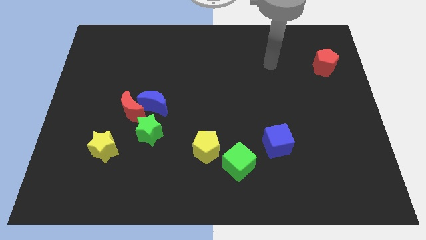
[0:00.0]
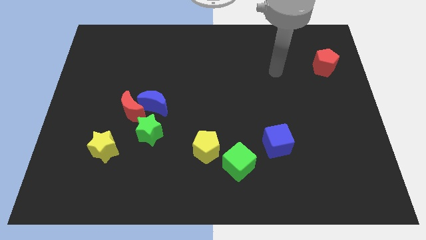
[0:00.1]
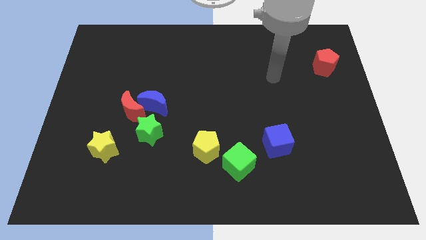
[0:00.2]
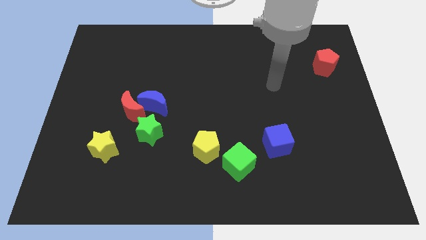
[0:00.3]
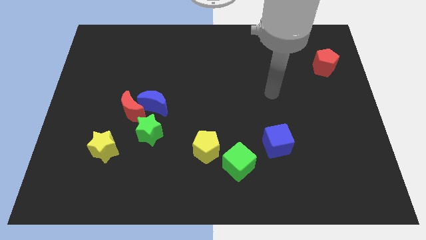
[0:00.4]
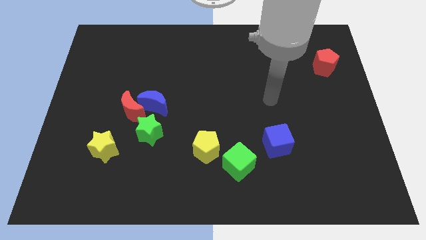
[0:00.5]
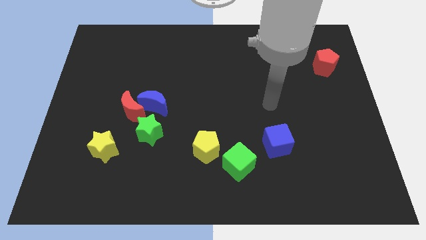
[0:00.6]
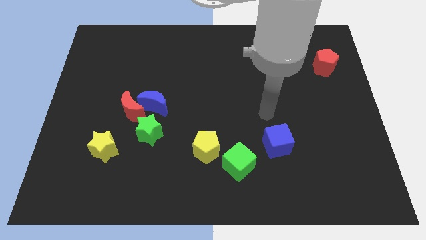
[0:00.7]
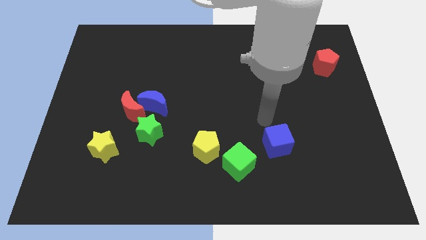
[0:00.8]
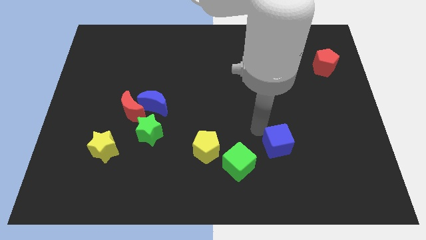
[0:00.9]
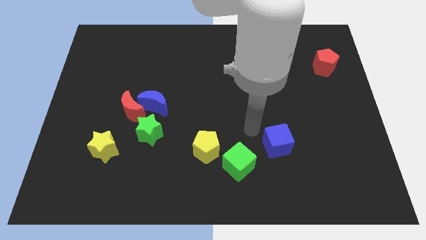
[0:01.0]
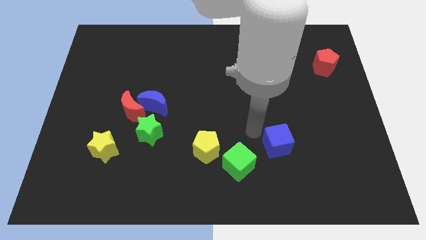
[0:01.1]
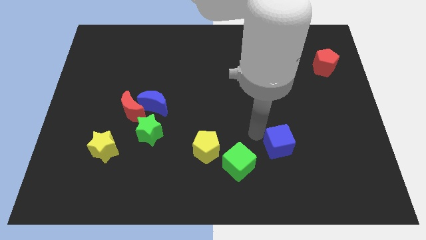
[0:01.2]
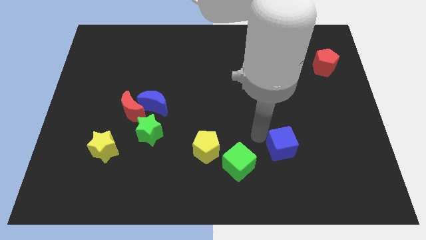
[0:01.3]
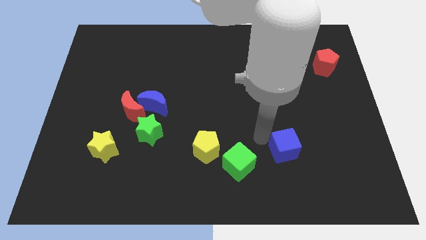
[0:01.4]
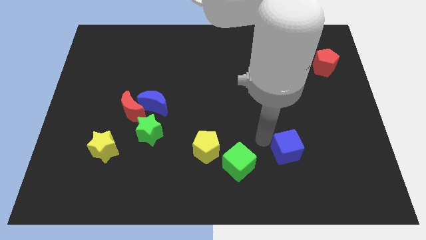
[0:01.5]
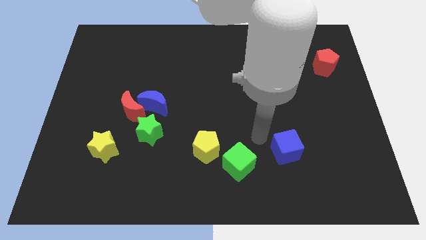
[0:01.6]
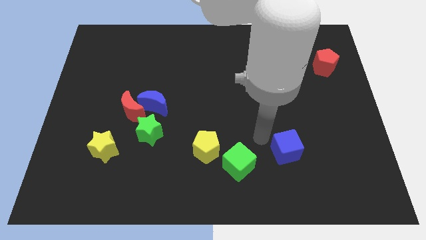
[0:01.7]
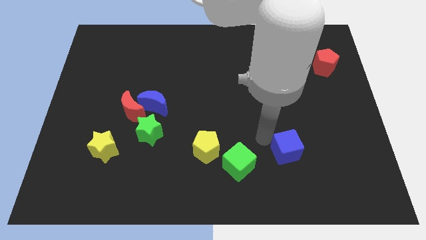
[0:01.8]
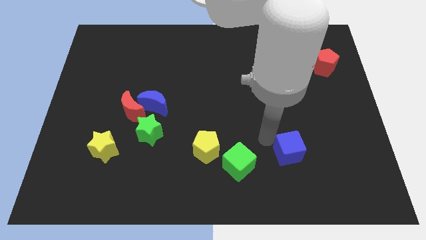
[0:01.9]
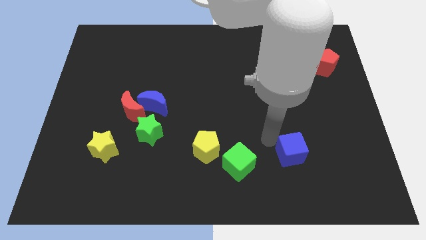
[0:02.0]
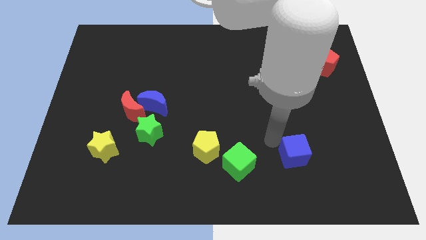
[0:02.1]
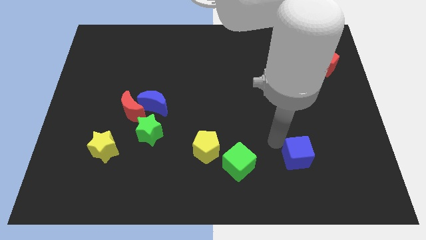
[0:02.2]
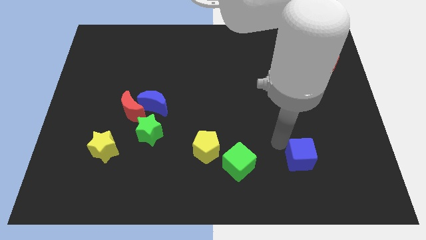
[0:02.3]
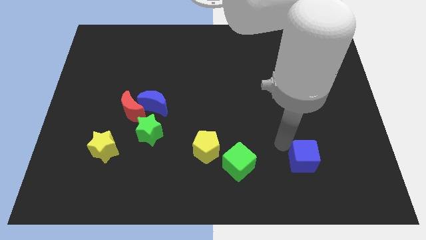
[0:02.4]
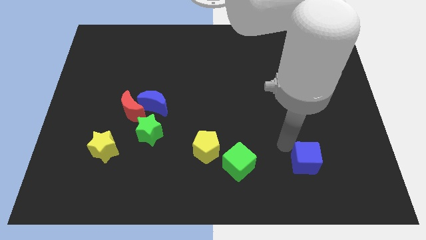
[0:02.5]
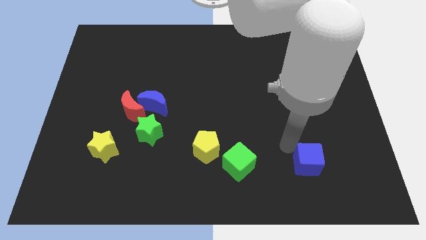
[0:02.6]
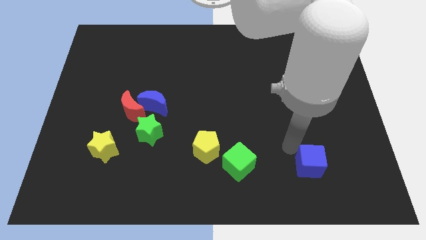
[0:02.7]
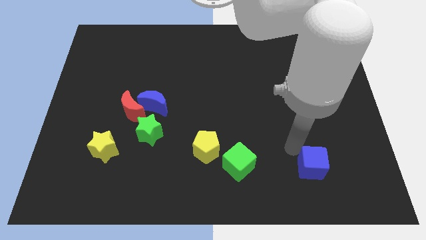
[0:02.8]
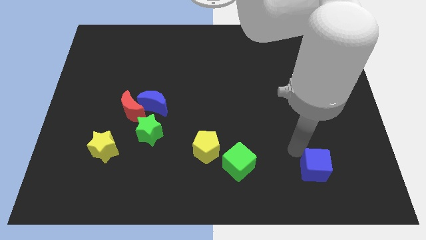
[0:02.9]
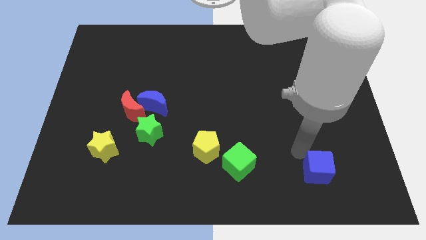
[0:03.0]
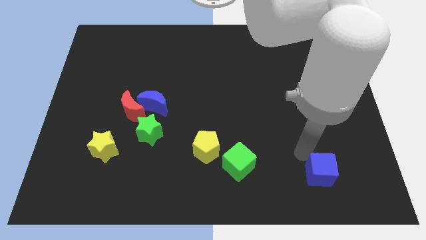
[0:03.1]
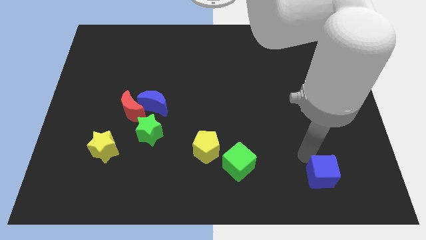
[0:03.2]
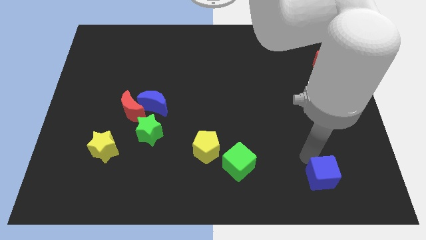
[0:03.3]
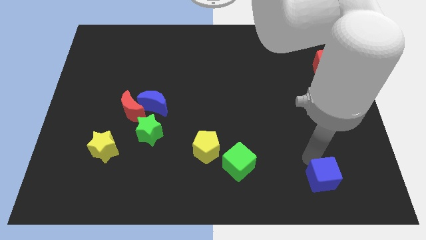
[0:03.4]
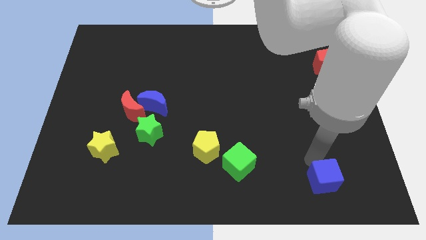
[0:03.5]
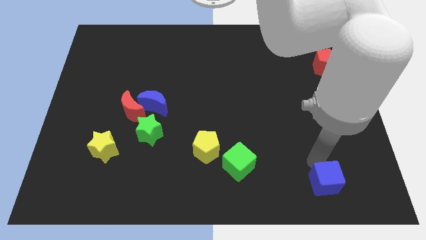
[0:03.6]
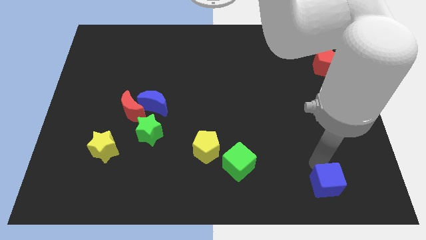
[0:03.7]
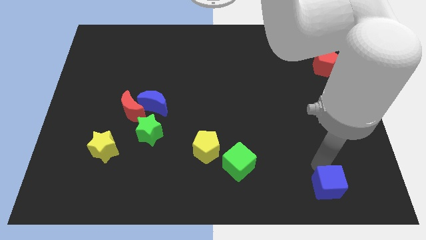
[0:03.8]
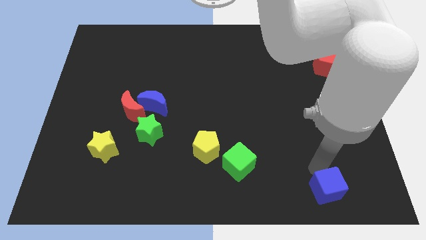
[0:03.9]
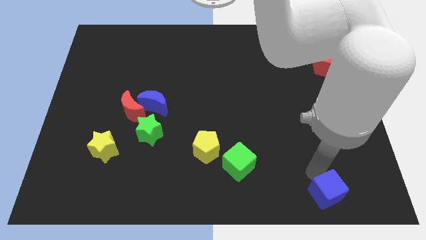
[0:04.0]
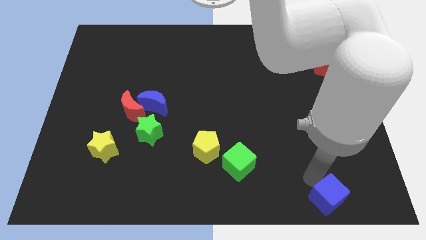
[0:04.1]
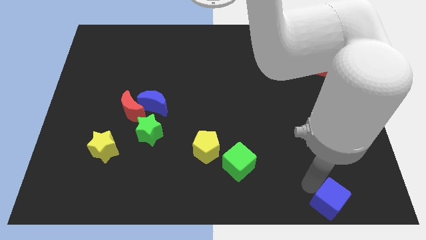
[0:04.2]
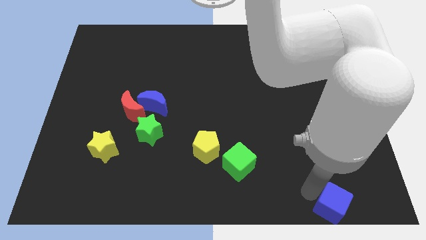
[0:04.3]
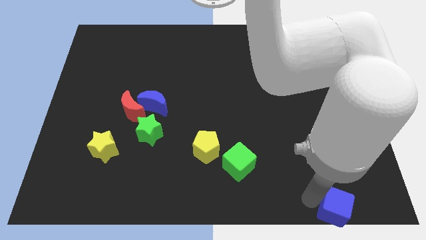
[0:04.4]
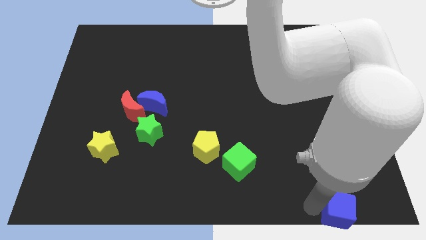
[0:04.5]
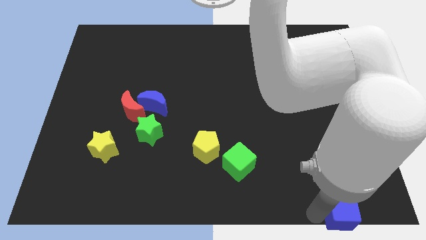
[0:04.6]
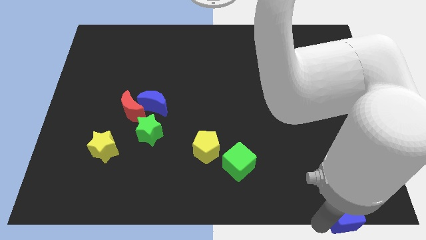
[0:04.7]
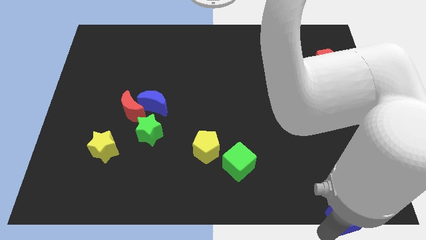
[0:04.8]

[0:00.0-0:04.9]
push the blue cube to the bottom right of the board

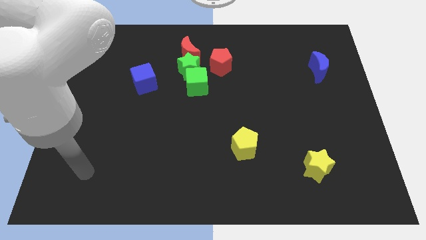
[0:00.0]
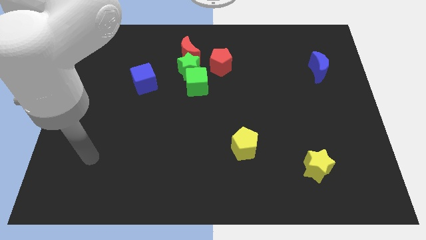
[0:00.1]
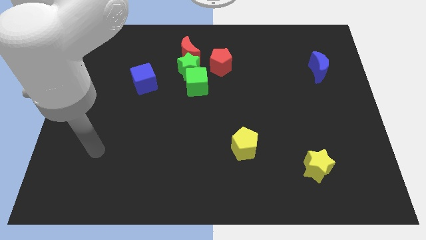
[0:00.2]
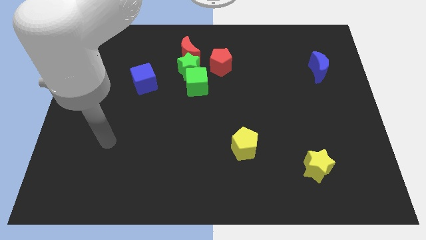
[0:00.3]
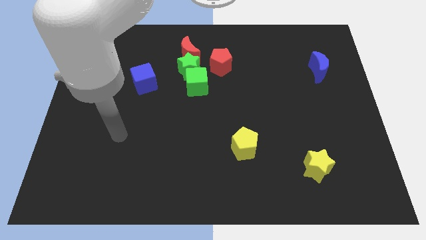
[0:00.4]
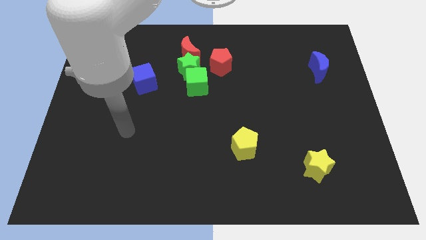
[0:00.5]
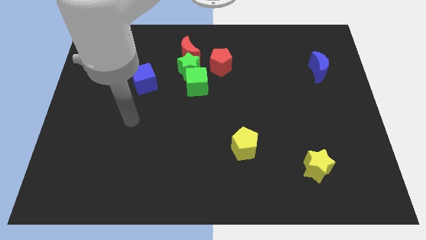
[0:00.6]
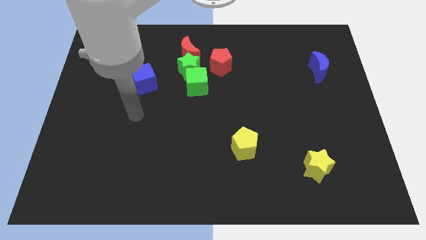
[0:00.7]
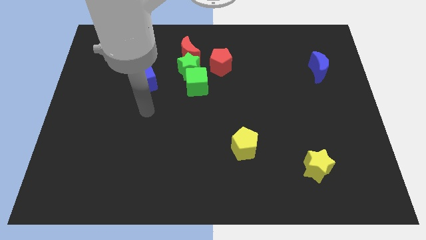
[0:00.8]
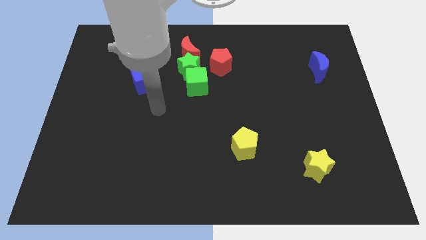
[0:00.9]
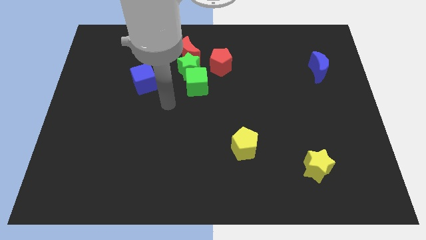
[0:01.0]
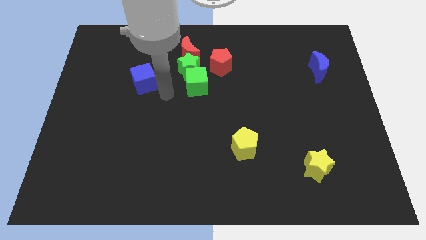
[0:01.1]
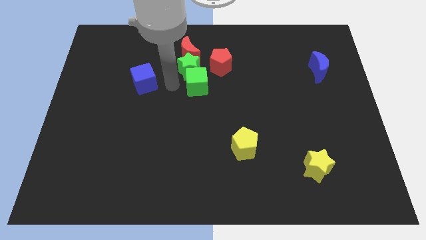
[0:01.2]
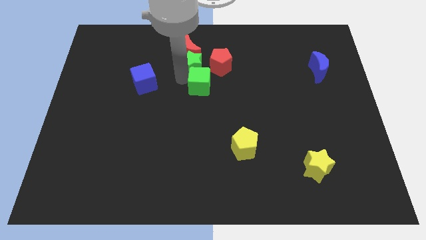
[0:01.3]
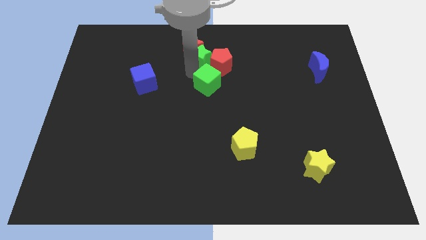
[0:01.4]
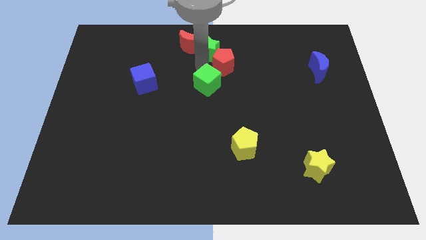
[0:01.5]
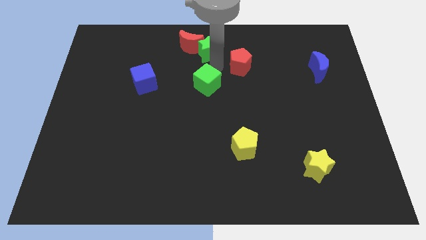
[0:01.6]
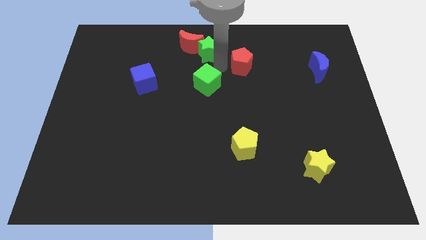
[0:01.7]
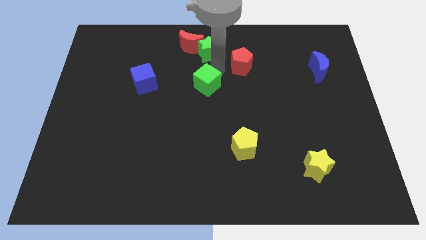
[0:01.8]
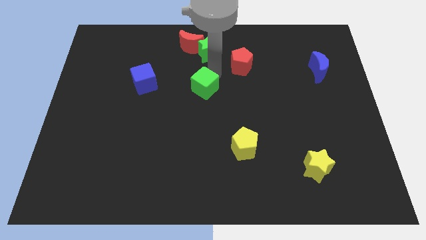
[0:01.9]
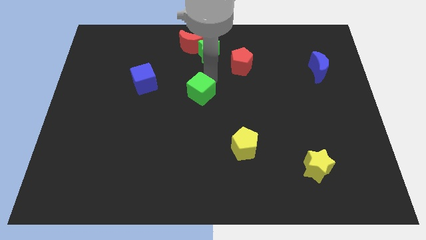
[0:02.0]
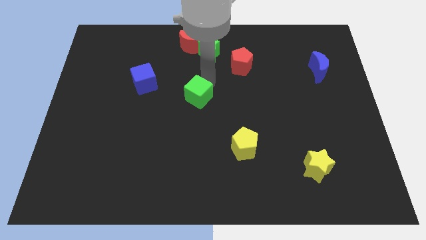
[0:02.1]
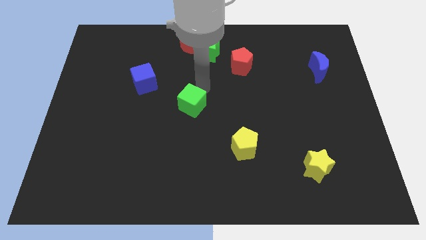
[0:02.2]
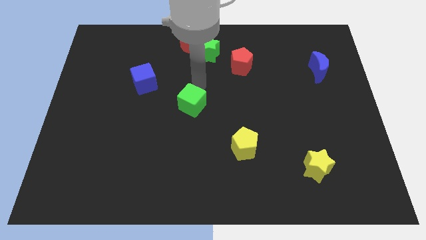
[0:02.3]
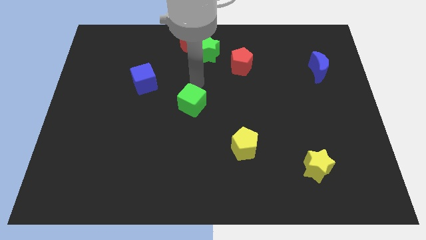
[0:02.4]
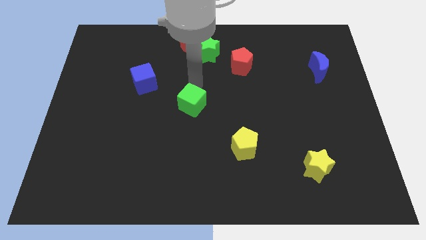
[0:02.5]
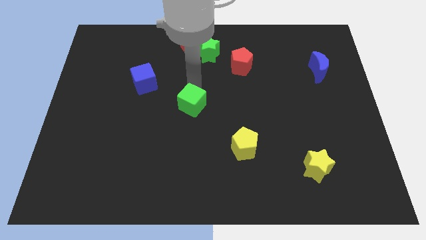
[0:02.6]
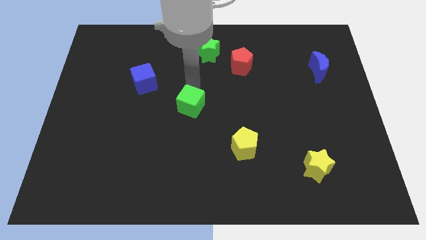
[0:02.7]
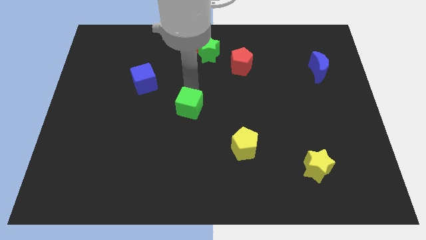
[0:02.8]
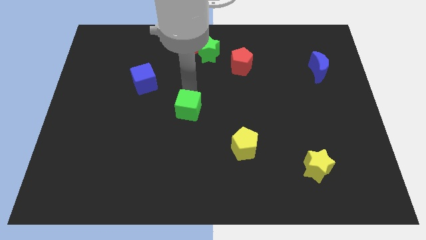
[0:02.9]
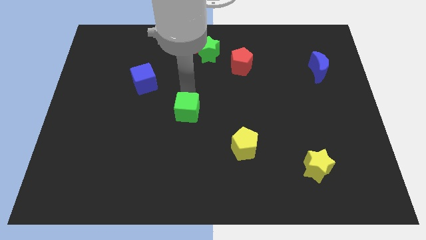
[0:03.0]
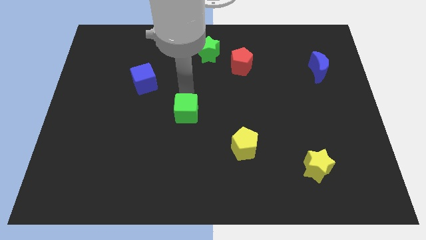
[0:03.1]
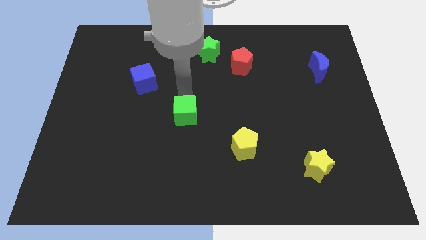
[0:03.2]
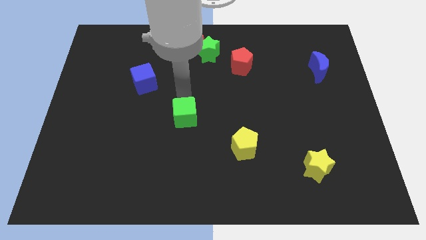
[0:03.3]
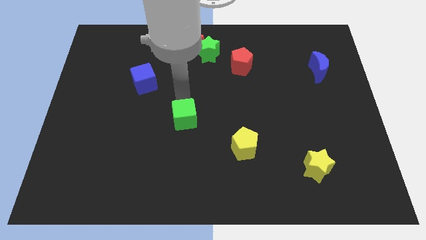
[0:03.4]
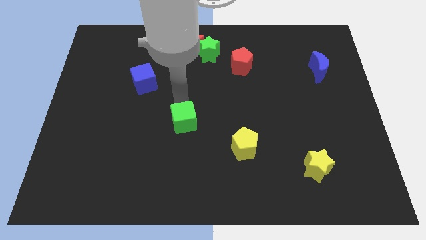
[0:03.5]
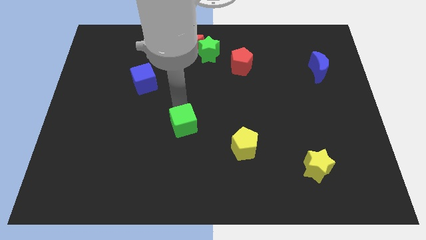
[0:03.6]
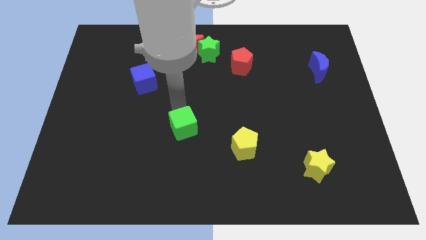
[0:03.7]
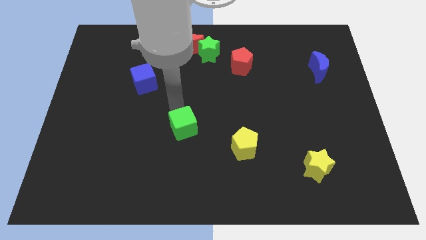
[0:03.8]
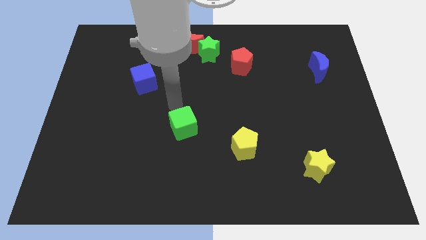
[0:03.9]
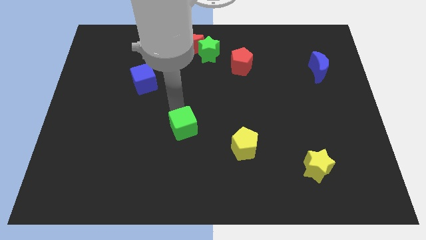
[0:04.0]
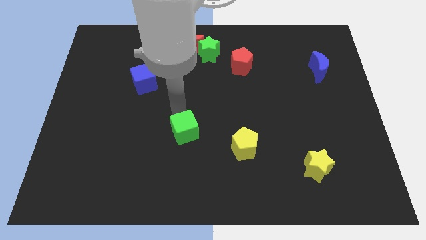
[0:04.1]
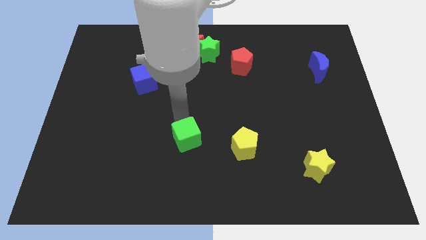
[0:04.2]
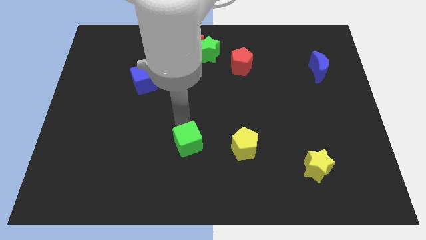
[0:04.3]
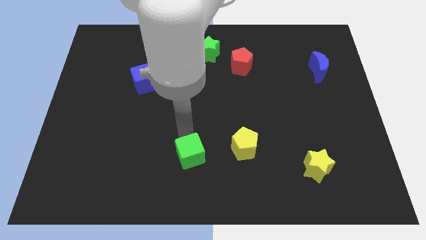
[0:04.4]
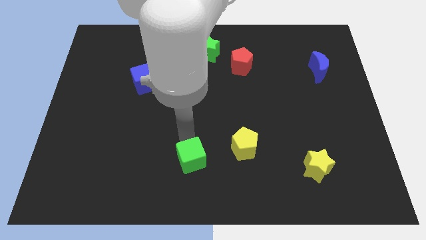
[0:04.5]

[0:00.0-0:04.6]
slide the green cube to the bottom side
